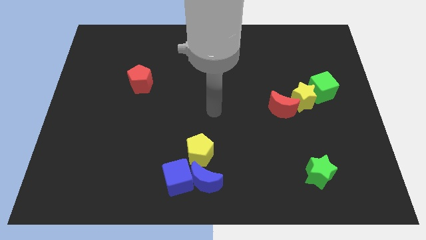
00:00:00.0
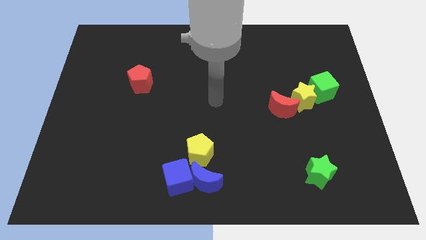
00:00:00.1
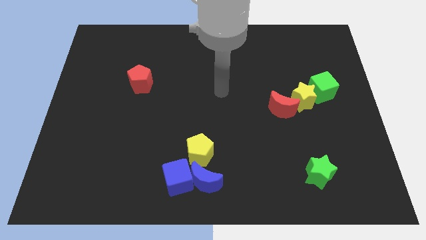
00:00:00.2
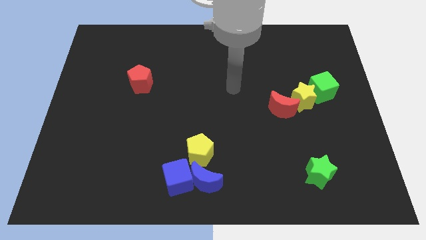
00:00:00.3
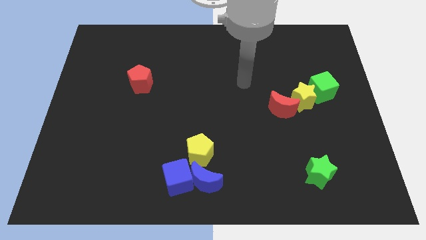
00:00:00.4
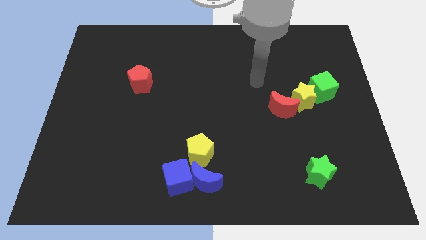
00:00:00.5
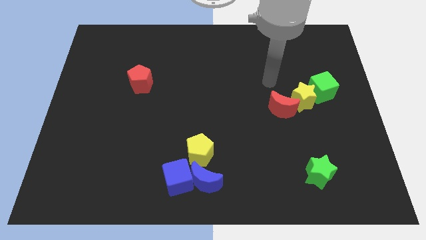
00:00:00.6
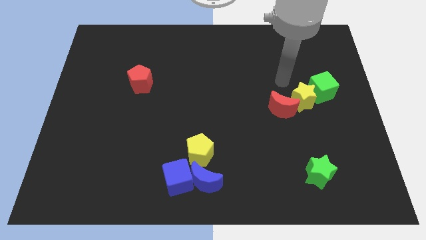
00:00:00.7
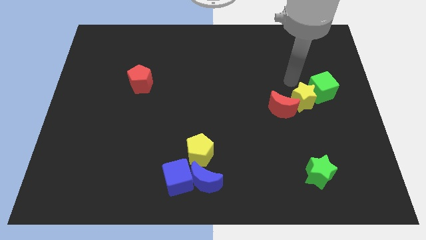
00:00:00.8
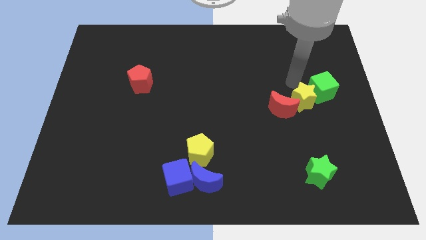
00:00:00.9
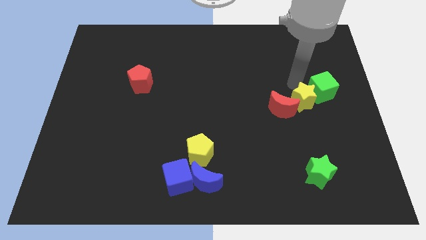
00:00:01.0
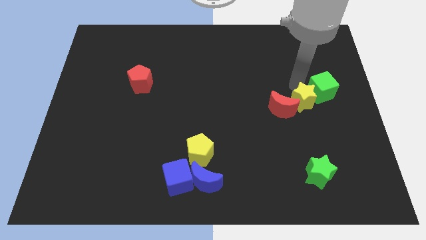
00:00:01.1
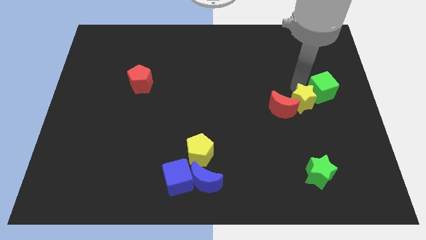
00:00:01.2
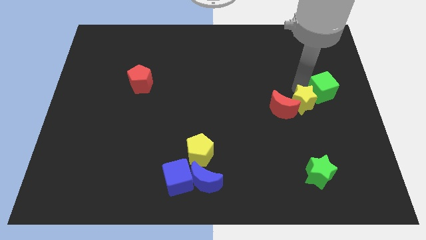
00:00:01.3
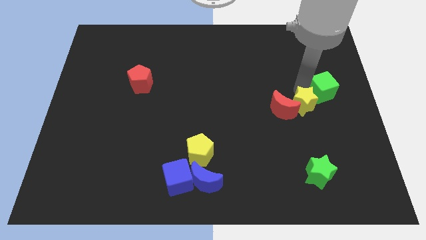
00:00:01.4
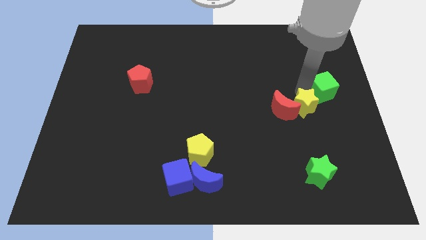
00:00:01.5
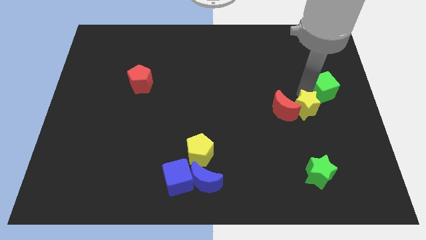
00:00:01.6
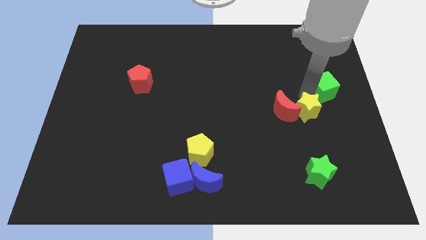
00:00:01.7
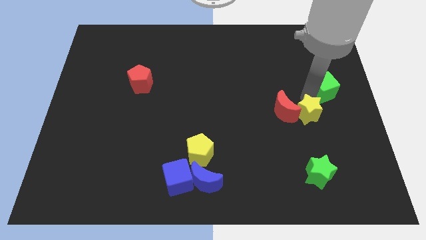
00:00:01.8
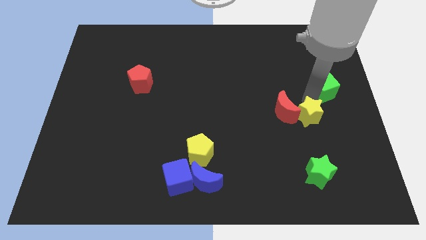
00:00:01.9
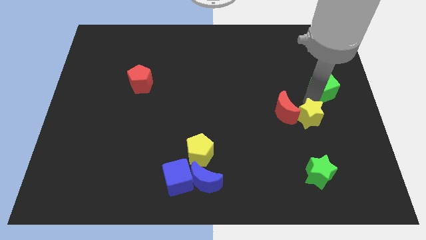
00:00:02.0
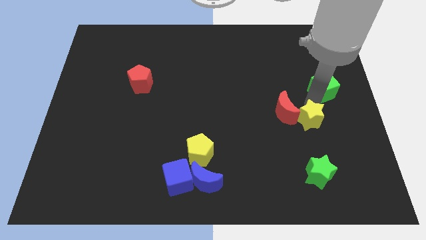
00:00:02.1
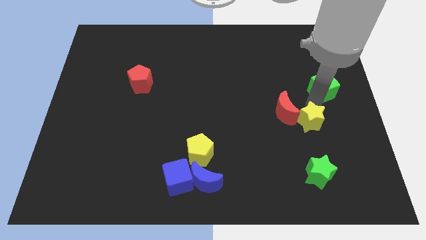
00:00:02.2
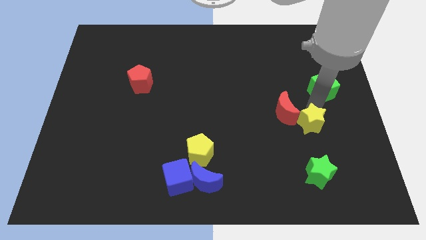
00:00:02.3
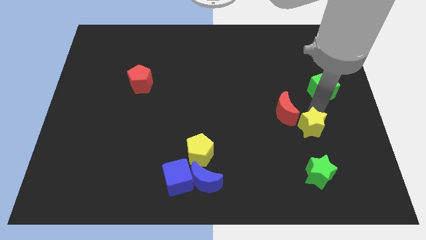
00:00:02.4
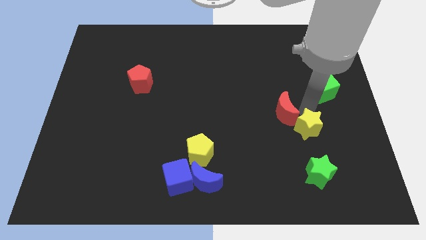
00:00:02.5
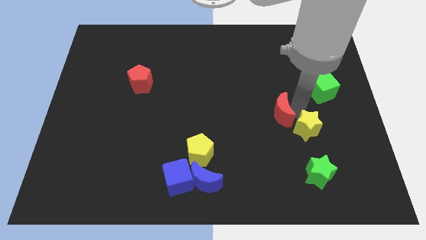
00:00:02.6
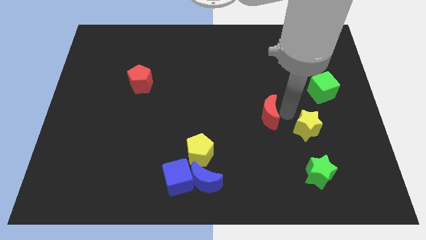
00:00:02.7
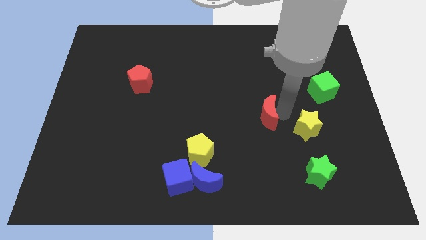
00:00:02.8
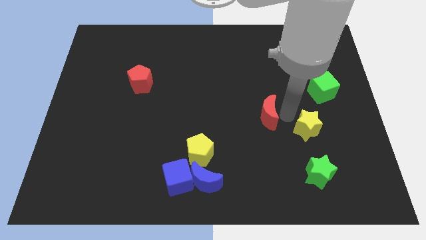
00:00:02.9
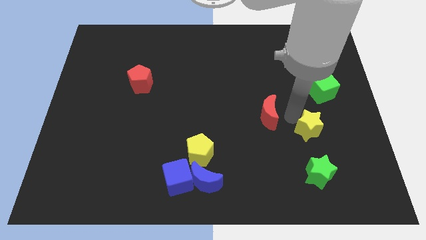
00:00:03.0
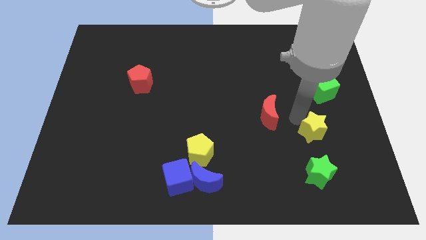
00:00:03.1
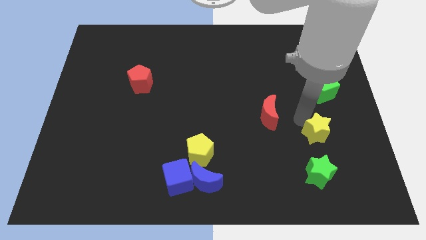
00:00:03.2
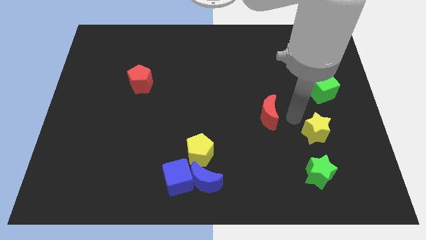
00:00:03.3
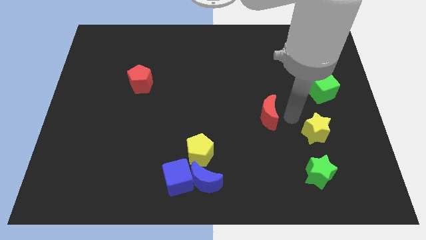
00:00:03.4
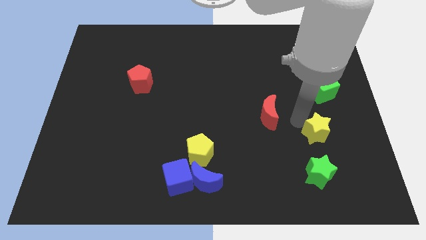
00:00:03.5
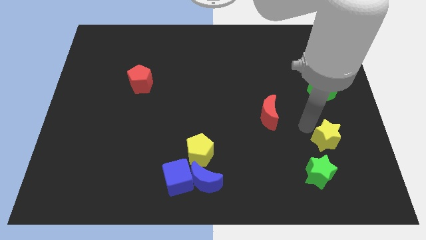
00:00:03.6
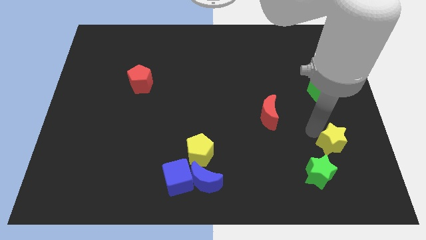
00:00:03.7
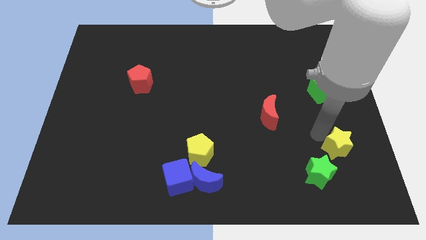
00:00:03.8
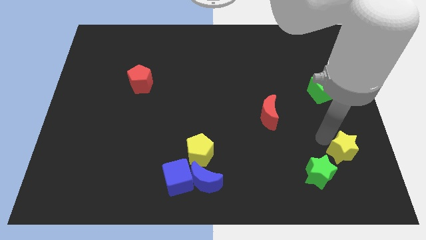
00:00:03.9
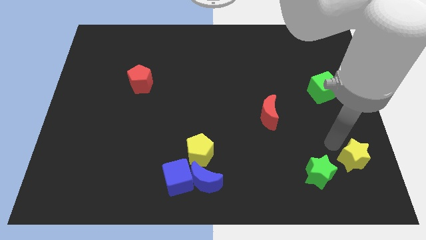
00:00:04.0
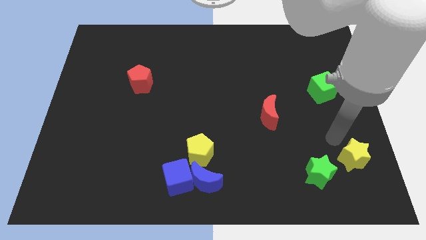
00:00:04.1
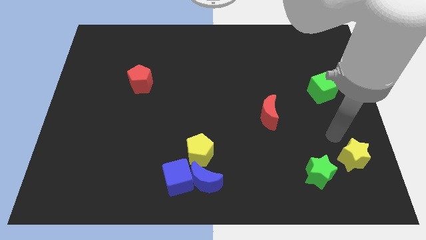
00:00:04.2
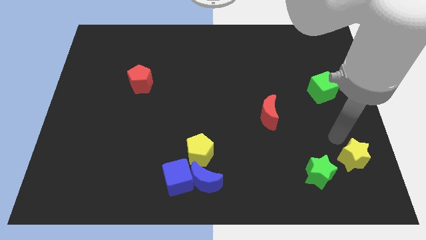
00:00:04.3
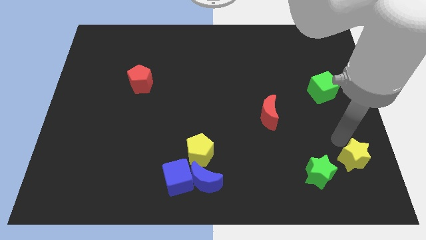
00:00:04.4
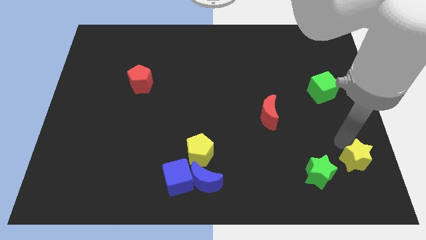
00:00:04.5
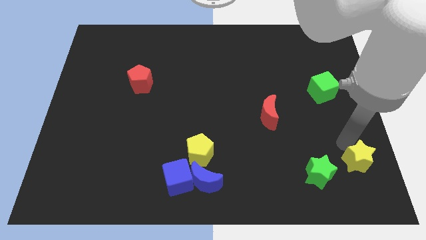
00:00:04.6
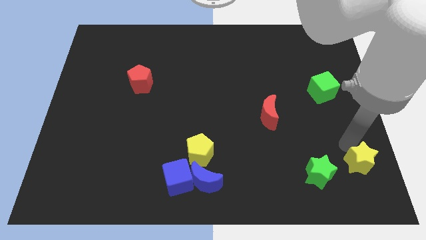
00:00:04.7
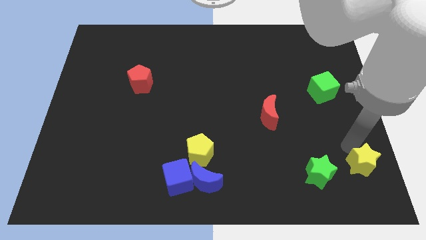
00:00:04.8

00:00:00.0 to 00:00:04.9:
put the yellow star to the bottom right of the board

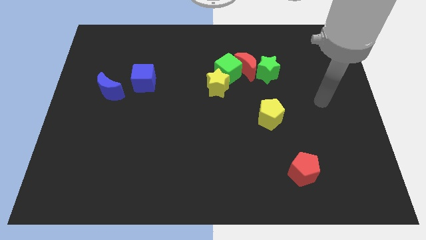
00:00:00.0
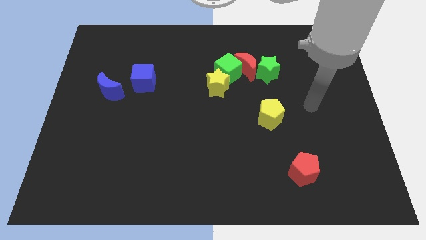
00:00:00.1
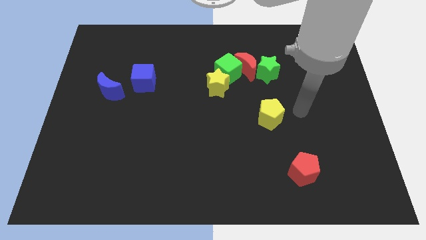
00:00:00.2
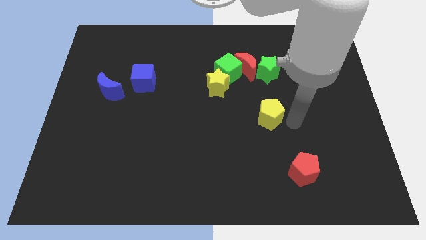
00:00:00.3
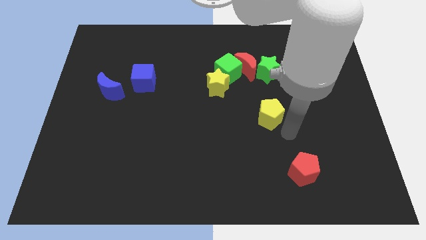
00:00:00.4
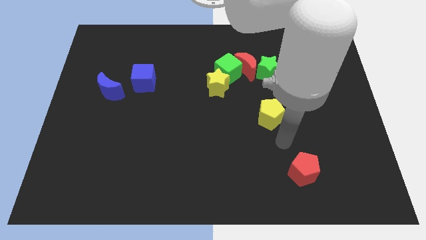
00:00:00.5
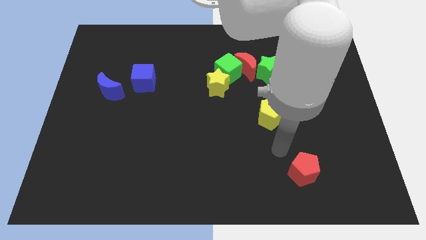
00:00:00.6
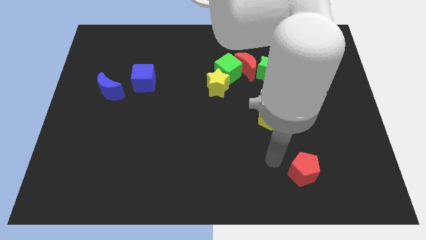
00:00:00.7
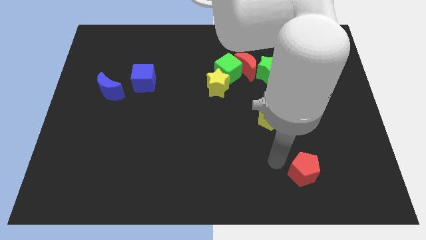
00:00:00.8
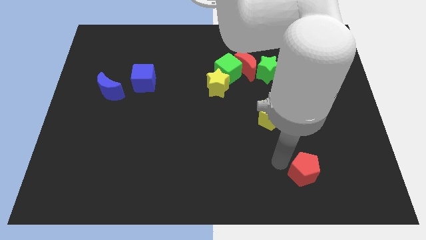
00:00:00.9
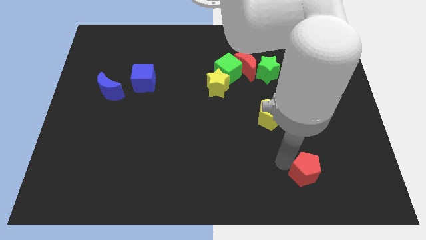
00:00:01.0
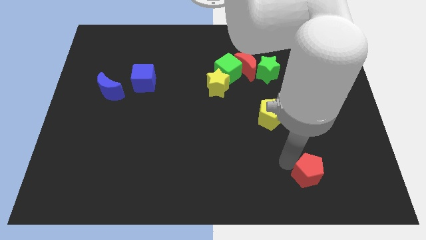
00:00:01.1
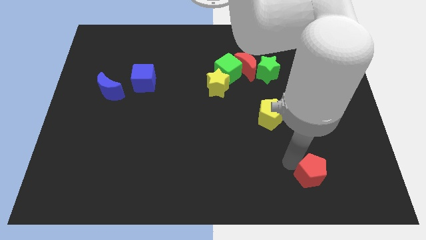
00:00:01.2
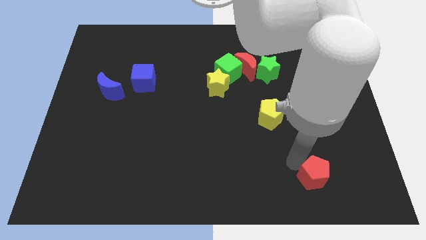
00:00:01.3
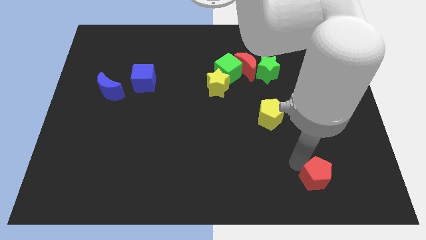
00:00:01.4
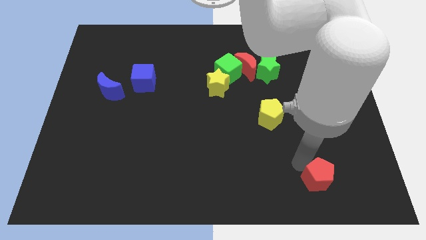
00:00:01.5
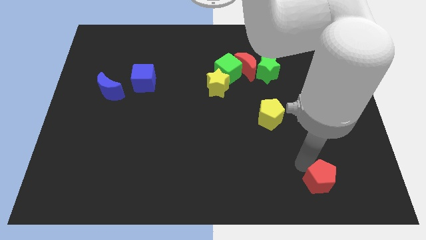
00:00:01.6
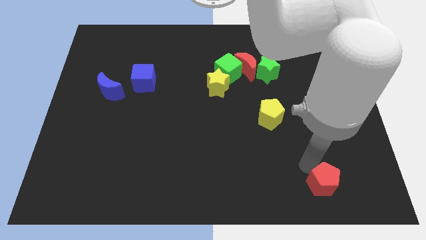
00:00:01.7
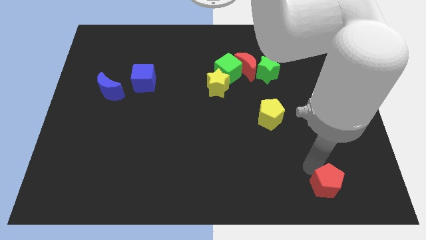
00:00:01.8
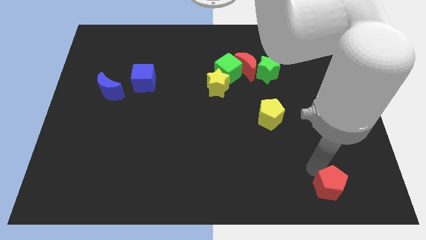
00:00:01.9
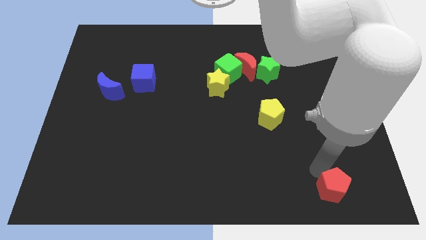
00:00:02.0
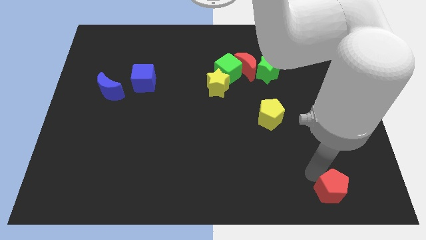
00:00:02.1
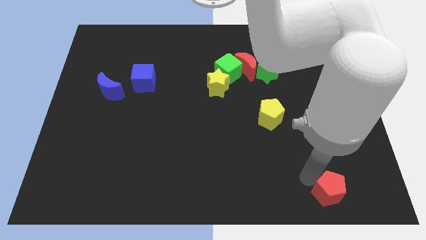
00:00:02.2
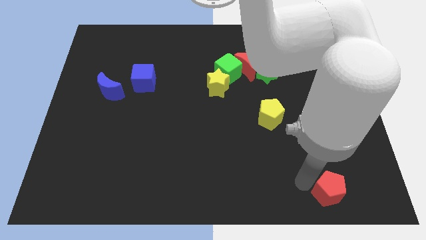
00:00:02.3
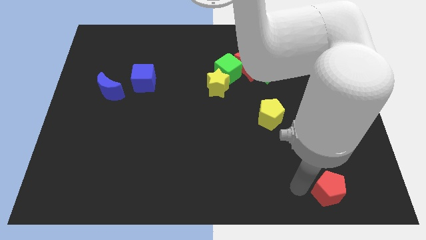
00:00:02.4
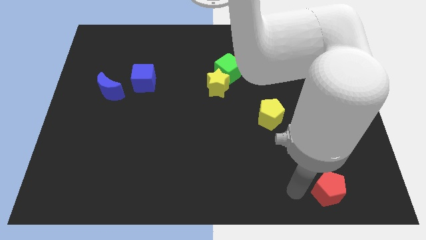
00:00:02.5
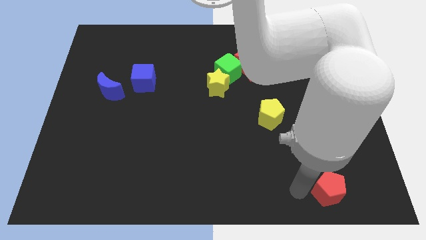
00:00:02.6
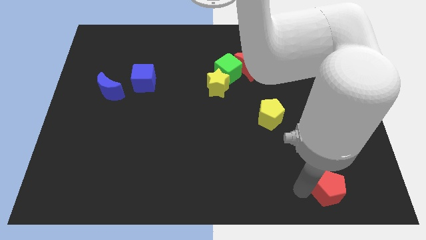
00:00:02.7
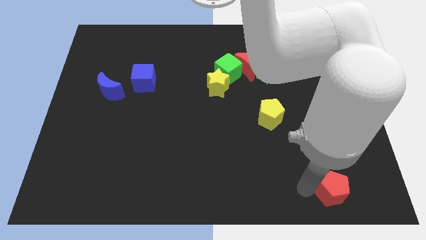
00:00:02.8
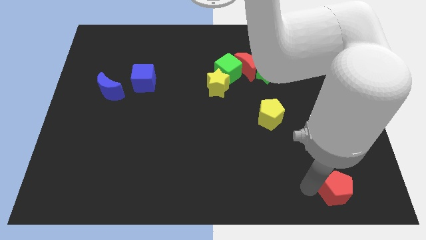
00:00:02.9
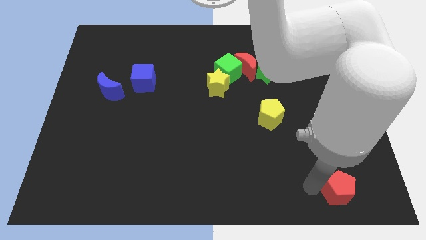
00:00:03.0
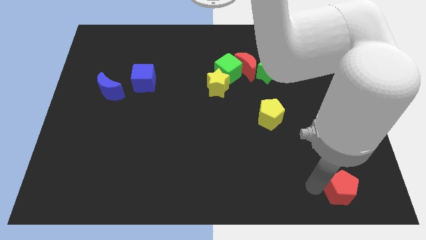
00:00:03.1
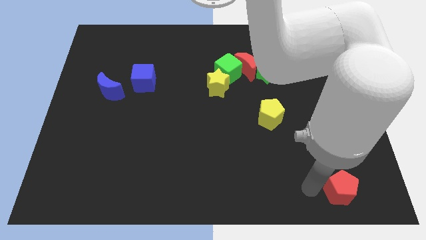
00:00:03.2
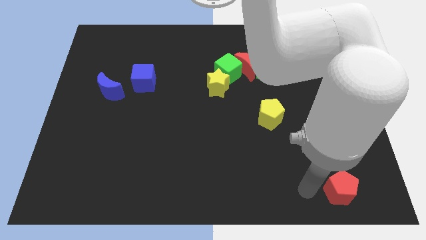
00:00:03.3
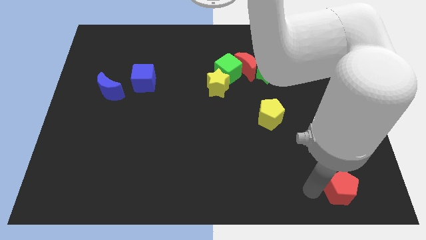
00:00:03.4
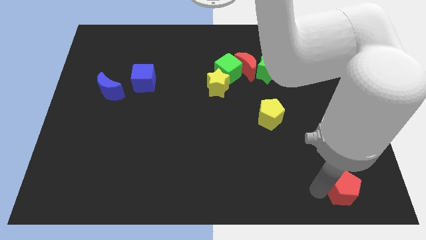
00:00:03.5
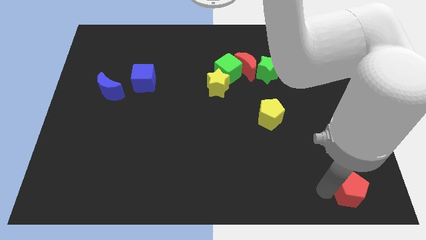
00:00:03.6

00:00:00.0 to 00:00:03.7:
move the red pentagon to the bottom right corner
